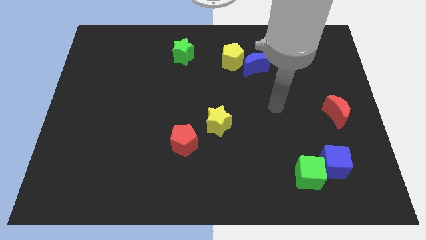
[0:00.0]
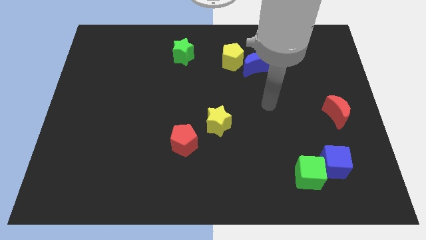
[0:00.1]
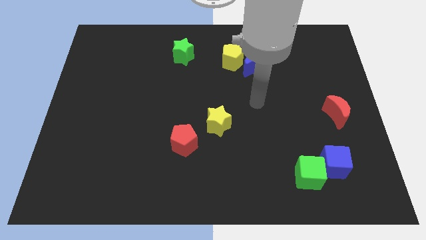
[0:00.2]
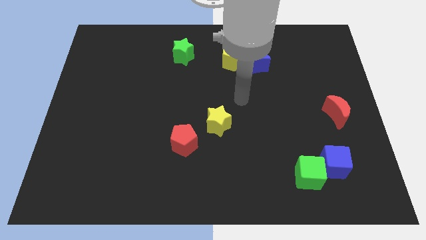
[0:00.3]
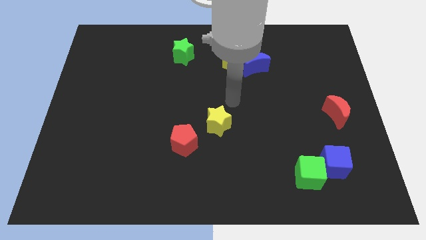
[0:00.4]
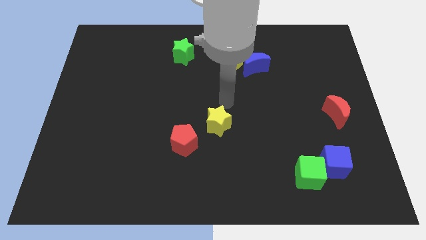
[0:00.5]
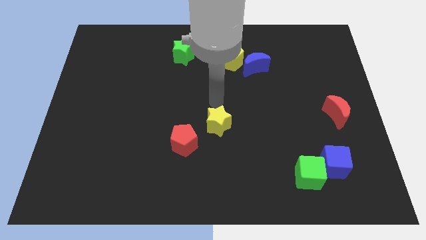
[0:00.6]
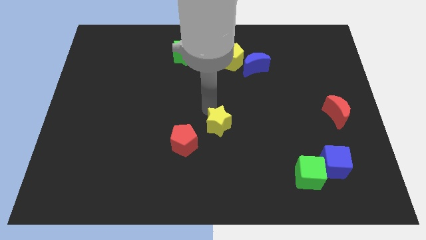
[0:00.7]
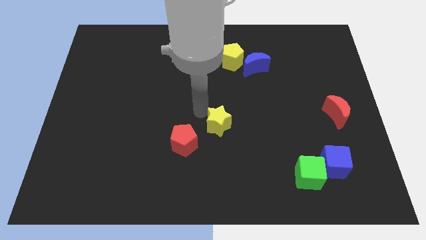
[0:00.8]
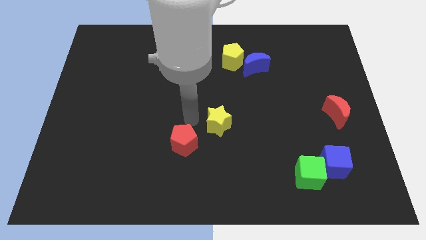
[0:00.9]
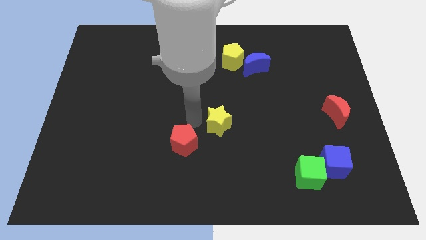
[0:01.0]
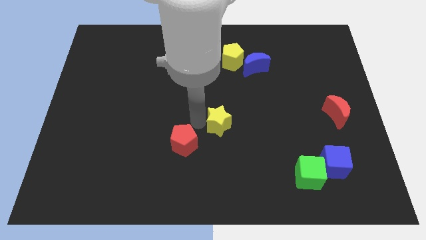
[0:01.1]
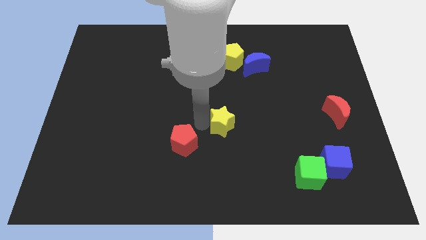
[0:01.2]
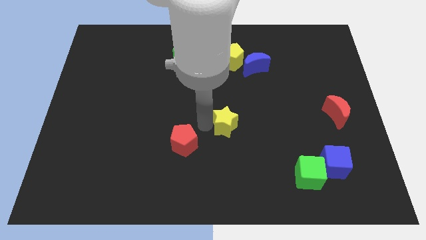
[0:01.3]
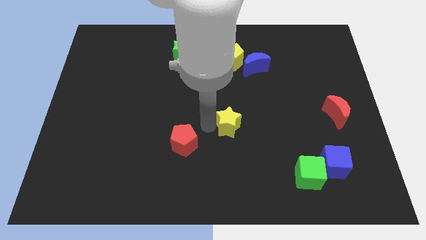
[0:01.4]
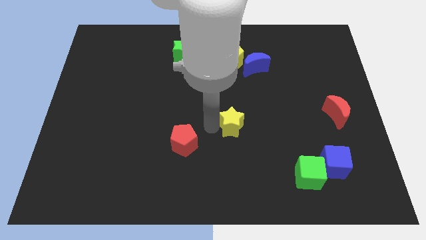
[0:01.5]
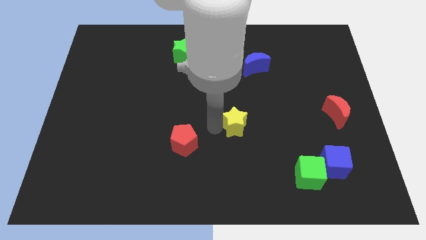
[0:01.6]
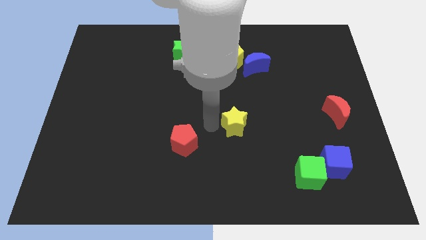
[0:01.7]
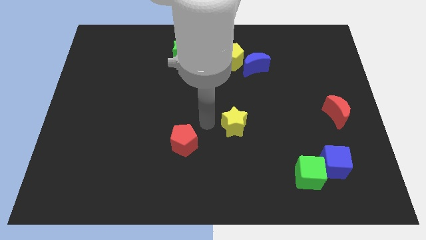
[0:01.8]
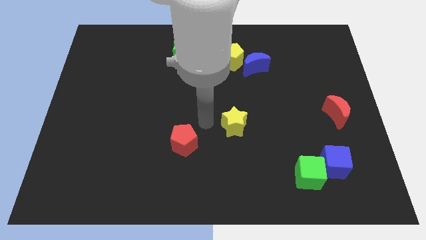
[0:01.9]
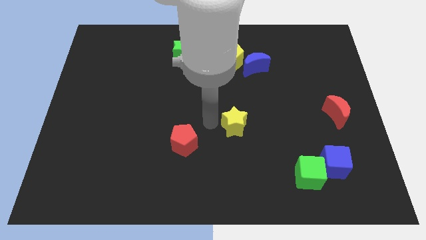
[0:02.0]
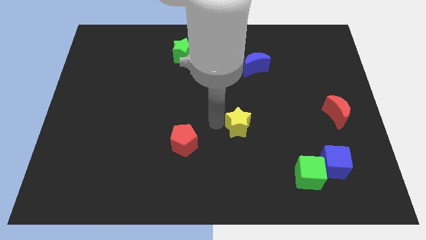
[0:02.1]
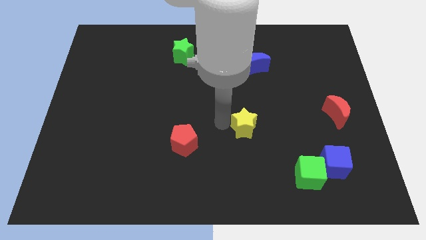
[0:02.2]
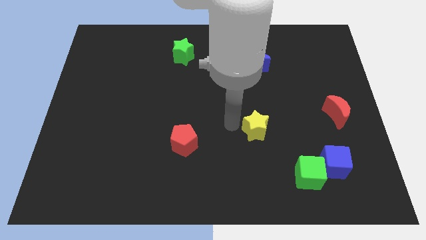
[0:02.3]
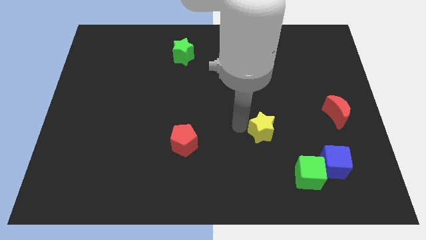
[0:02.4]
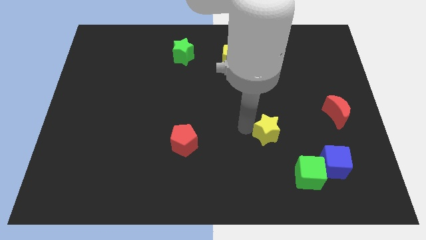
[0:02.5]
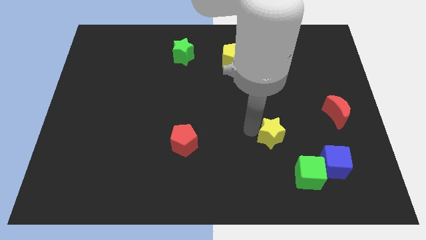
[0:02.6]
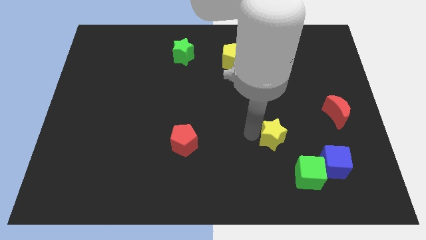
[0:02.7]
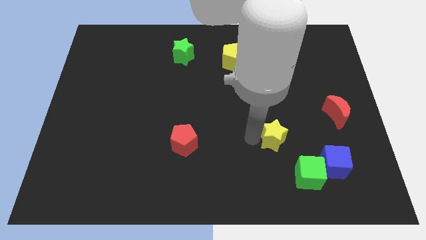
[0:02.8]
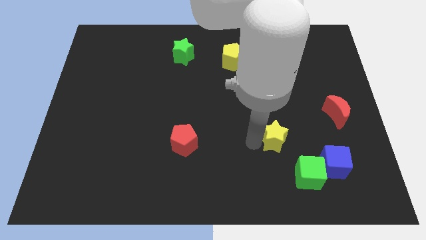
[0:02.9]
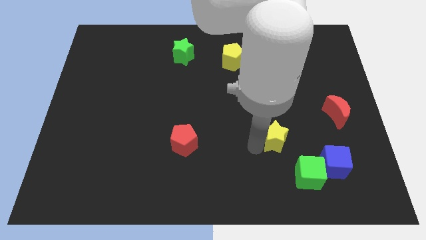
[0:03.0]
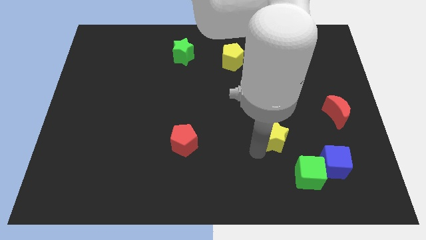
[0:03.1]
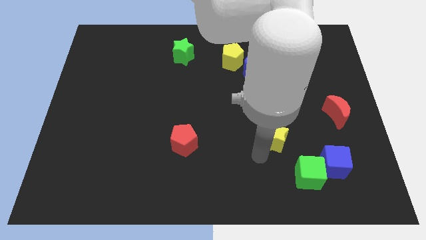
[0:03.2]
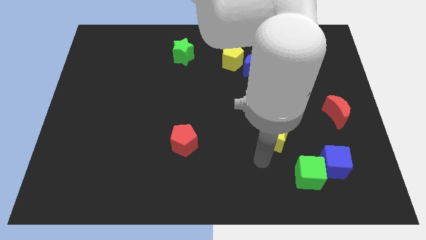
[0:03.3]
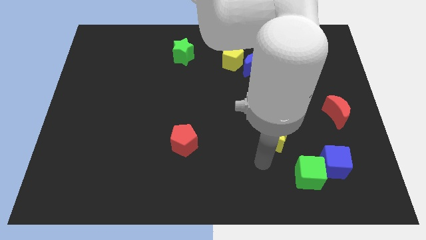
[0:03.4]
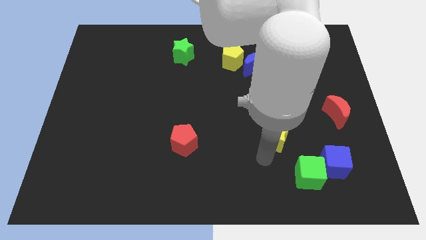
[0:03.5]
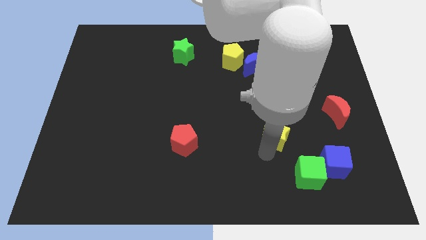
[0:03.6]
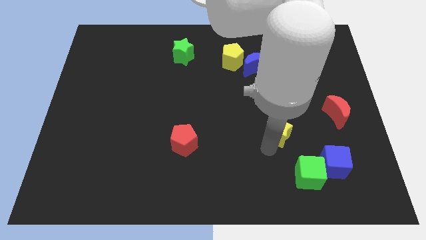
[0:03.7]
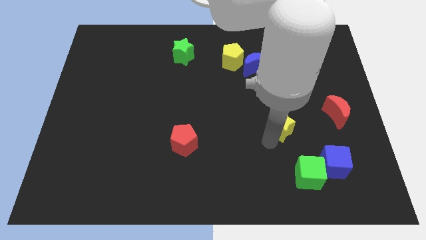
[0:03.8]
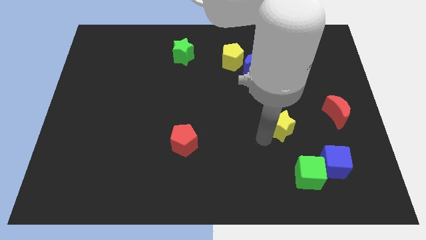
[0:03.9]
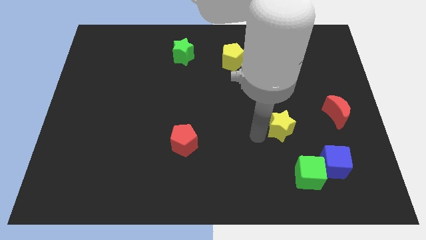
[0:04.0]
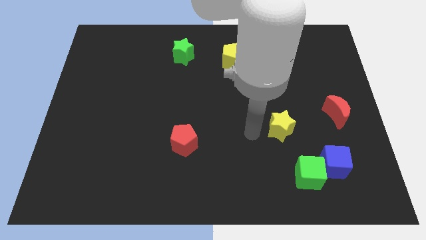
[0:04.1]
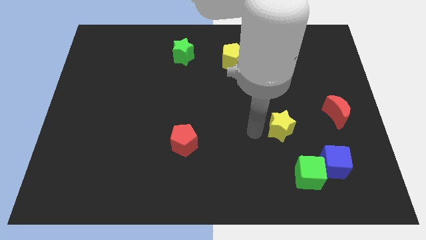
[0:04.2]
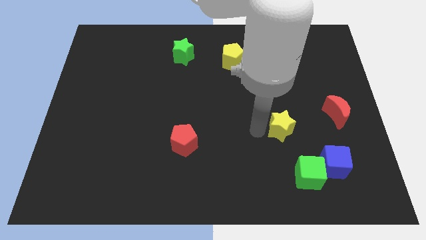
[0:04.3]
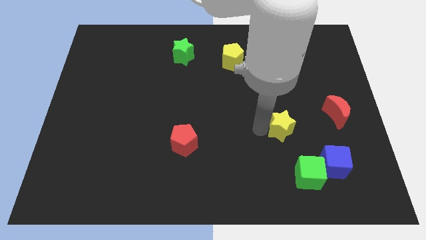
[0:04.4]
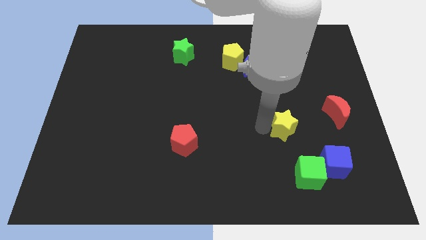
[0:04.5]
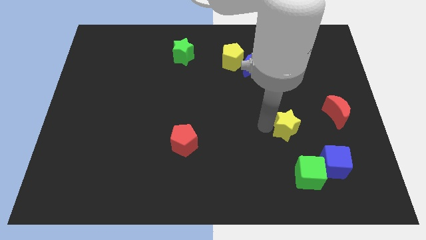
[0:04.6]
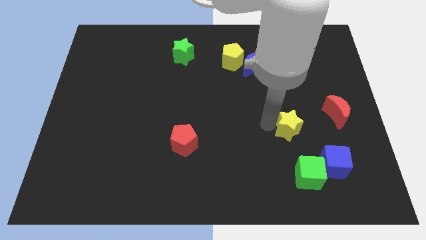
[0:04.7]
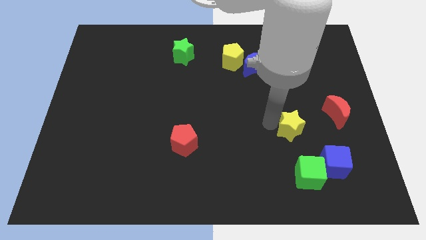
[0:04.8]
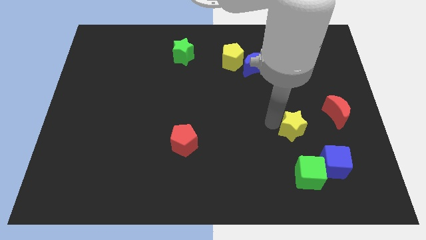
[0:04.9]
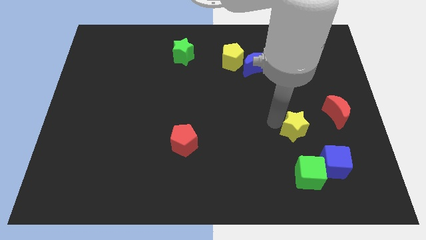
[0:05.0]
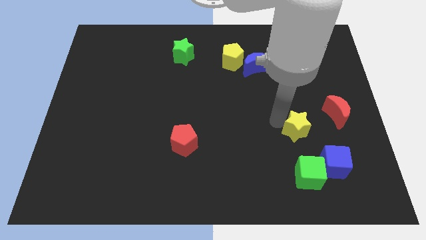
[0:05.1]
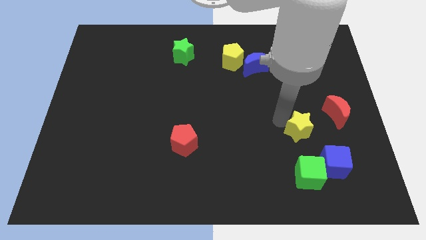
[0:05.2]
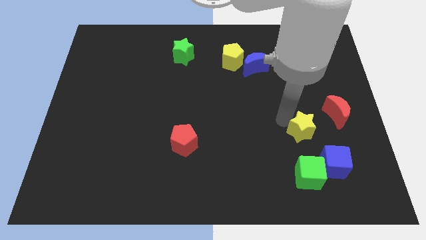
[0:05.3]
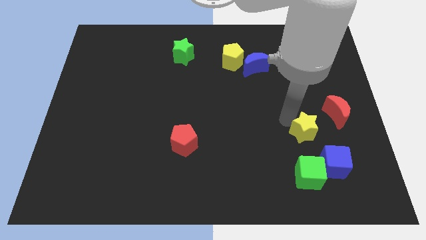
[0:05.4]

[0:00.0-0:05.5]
put the yellow star to the top side of the blue cube

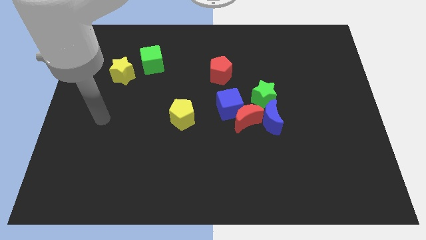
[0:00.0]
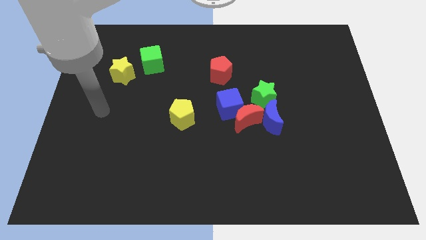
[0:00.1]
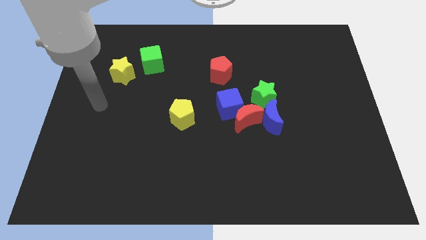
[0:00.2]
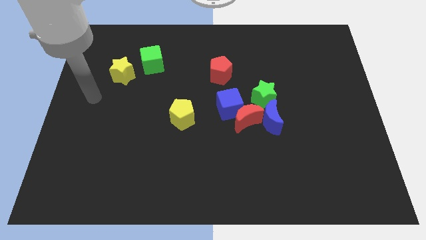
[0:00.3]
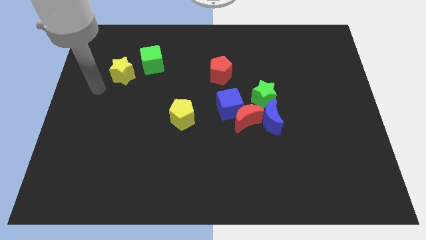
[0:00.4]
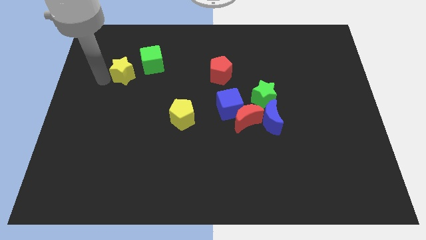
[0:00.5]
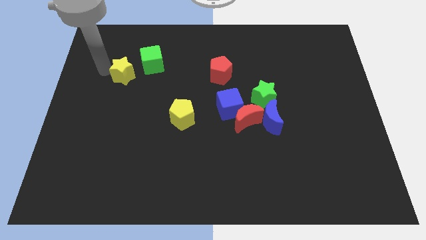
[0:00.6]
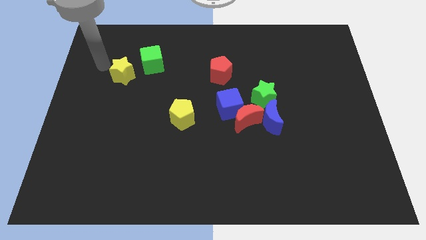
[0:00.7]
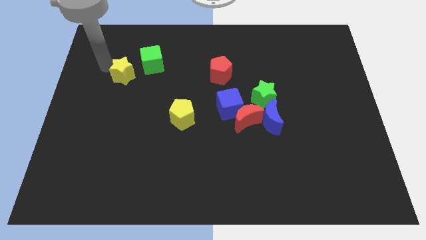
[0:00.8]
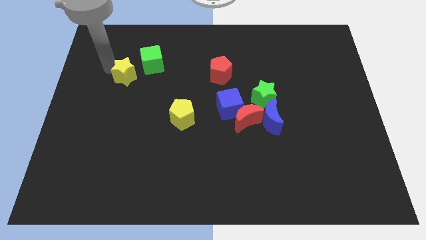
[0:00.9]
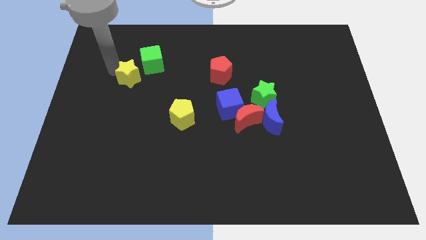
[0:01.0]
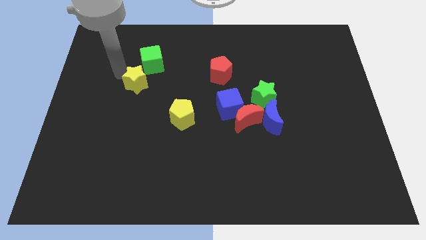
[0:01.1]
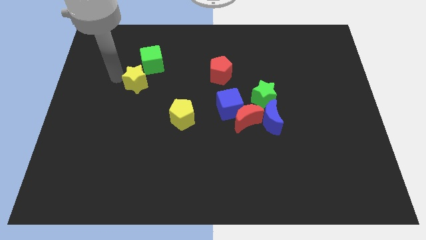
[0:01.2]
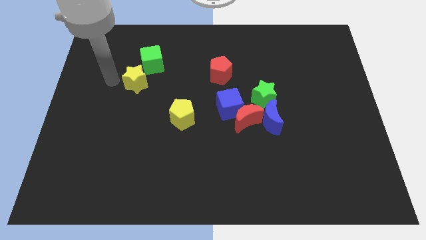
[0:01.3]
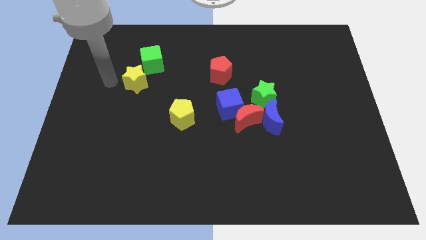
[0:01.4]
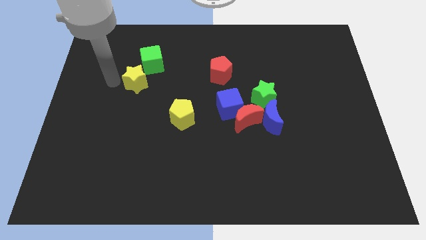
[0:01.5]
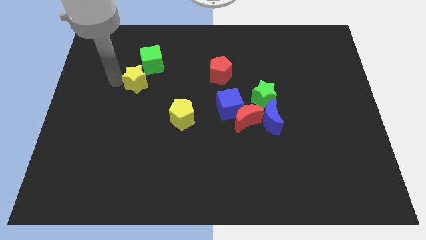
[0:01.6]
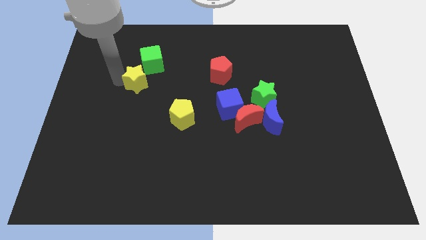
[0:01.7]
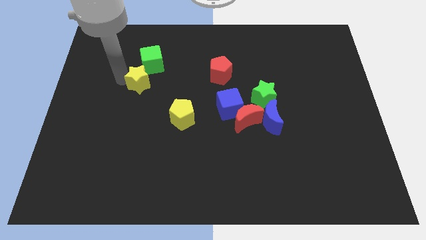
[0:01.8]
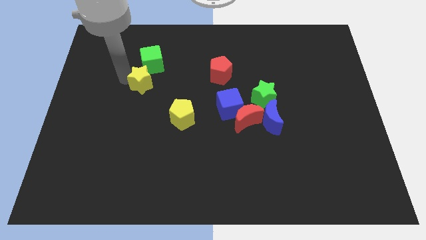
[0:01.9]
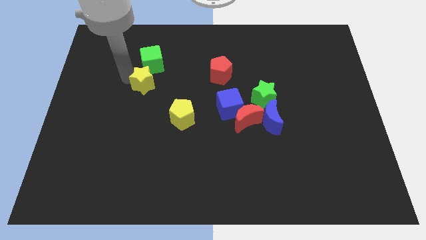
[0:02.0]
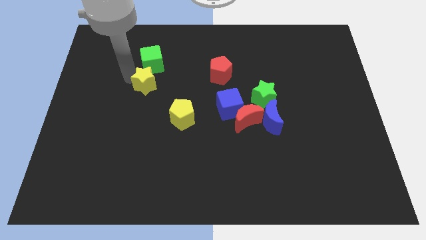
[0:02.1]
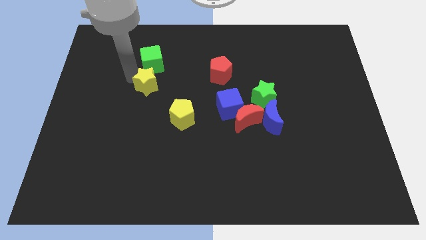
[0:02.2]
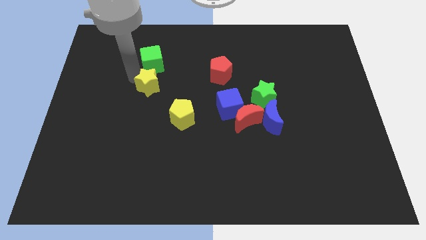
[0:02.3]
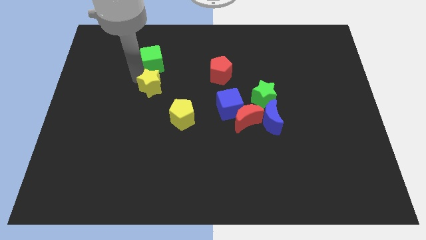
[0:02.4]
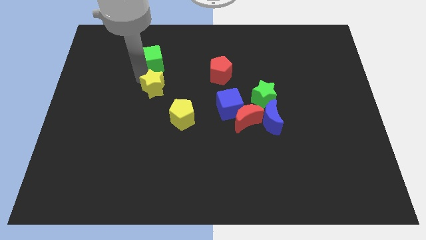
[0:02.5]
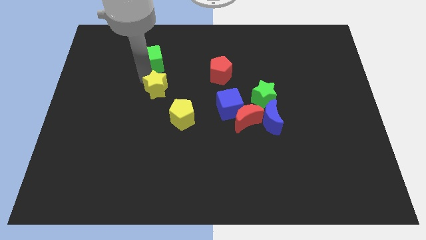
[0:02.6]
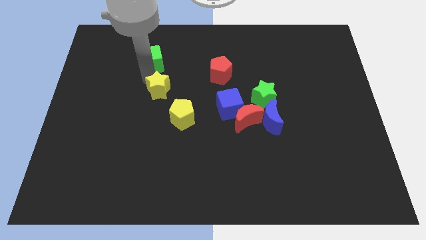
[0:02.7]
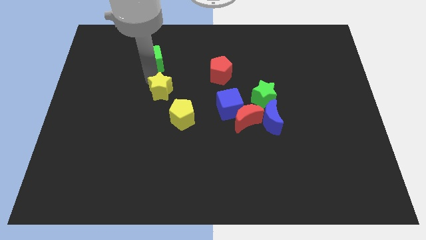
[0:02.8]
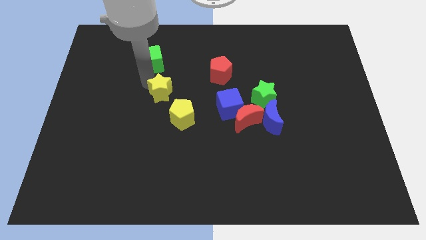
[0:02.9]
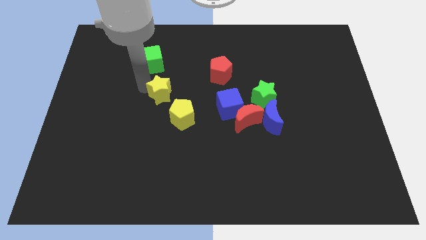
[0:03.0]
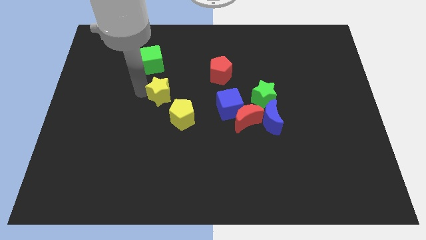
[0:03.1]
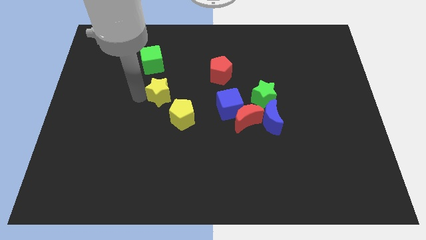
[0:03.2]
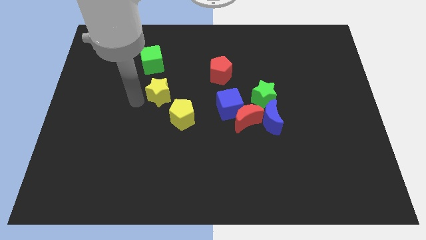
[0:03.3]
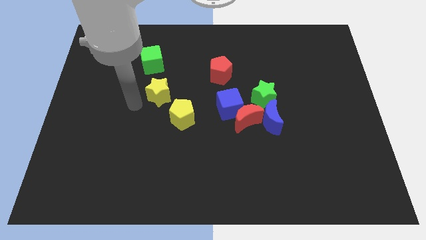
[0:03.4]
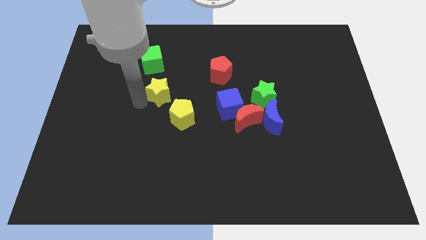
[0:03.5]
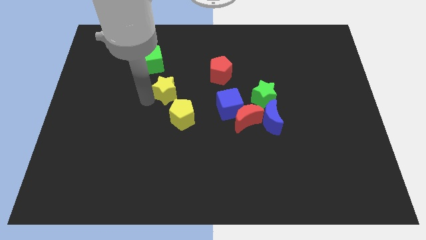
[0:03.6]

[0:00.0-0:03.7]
put the yellow star above the yellow pentagon
